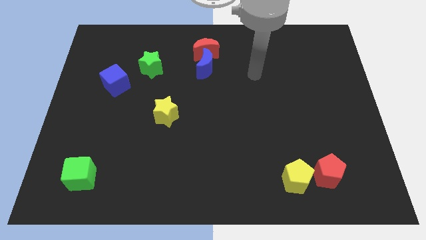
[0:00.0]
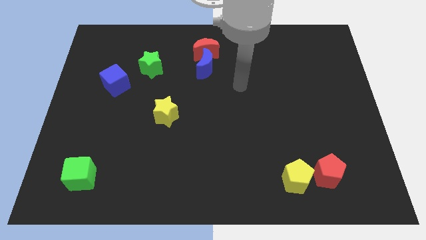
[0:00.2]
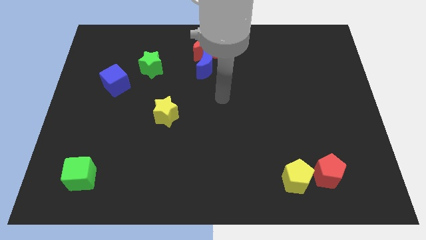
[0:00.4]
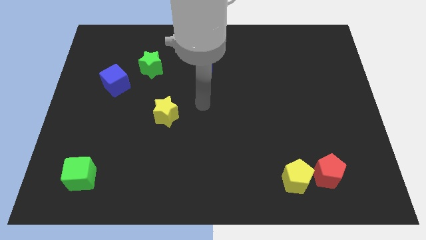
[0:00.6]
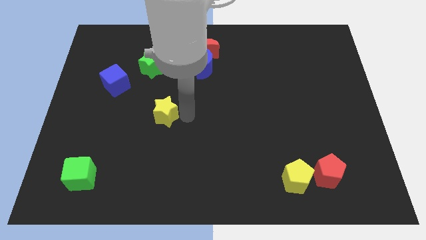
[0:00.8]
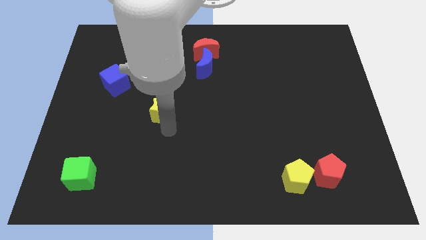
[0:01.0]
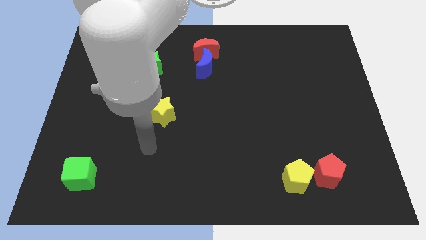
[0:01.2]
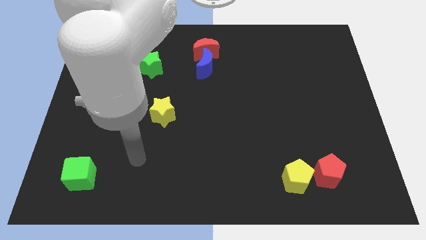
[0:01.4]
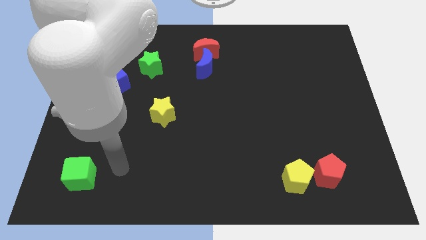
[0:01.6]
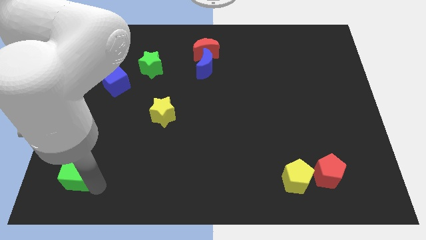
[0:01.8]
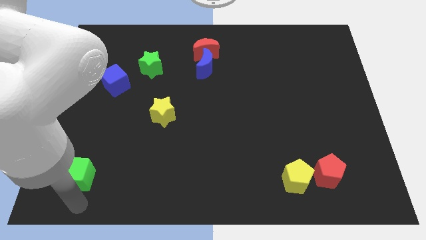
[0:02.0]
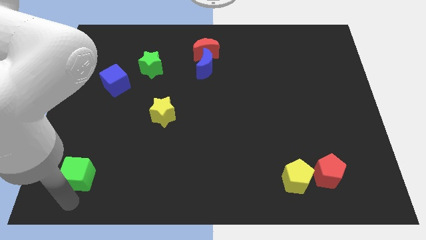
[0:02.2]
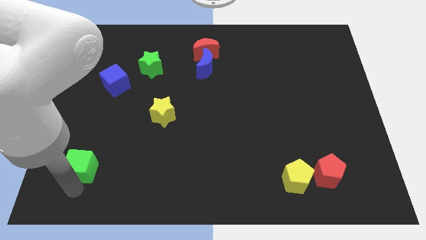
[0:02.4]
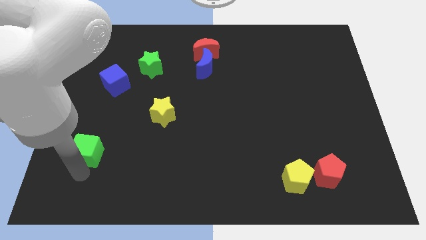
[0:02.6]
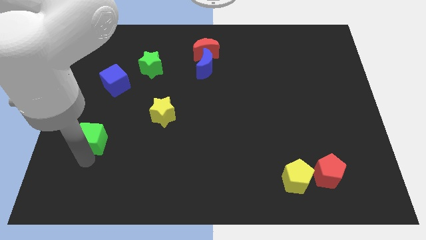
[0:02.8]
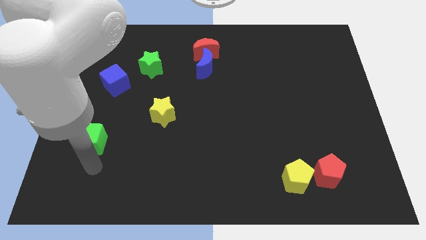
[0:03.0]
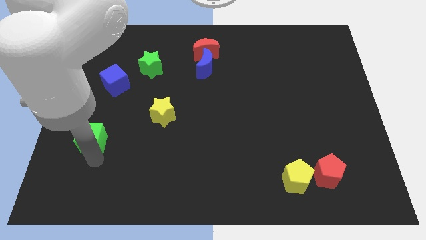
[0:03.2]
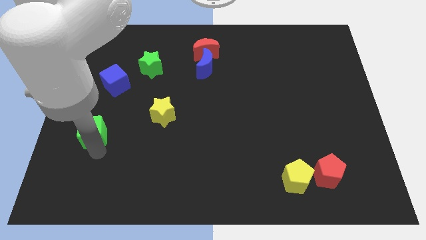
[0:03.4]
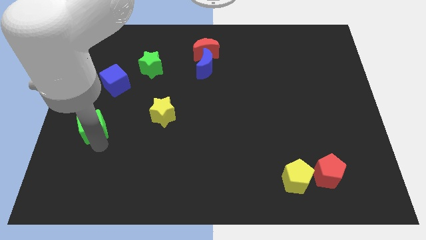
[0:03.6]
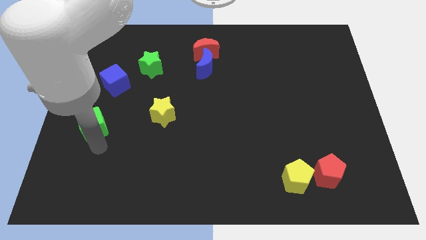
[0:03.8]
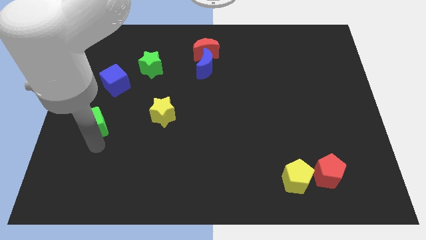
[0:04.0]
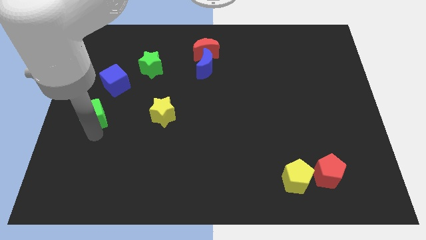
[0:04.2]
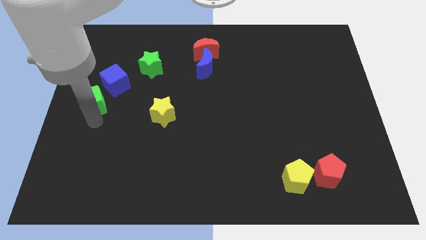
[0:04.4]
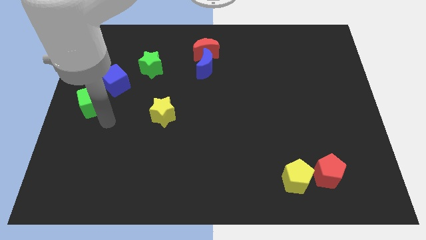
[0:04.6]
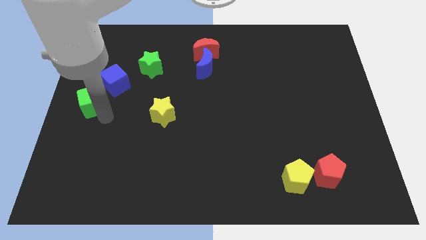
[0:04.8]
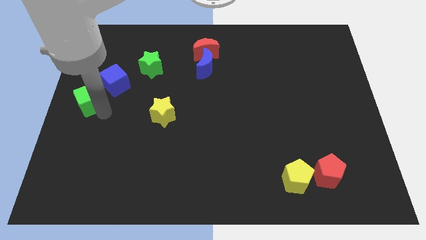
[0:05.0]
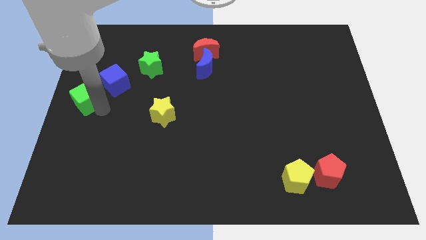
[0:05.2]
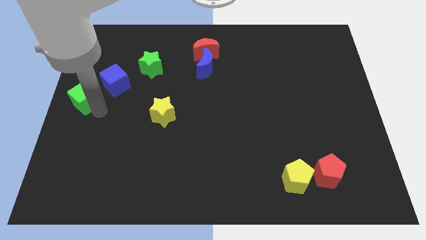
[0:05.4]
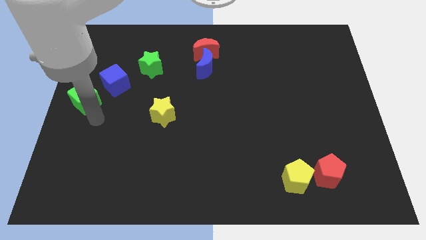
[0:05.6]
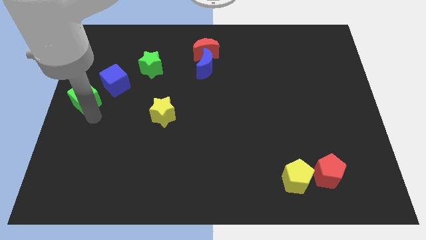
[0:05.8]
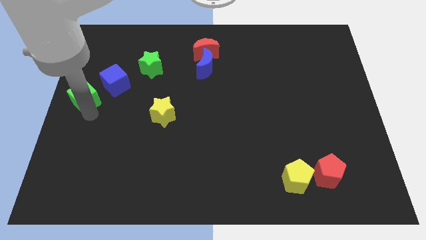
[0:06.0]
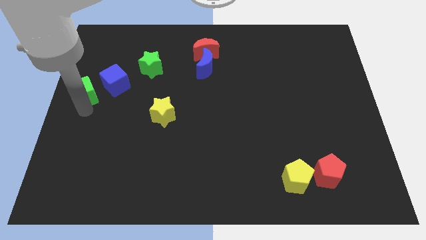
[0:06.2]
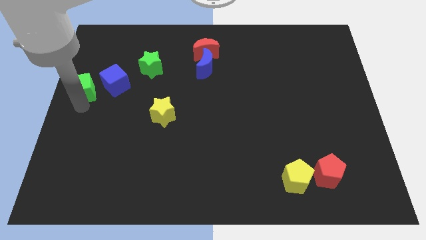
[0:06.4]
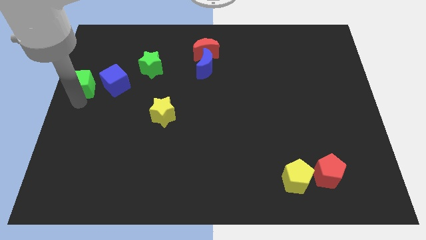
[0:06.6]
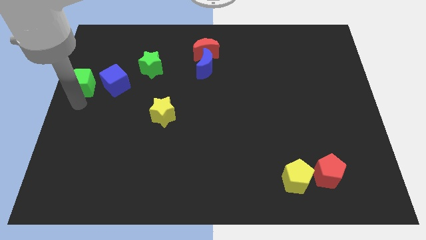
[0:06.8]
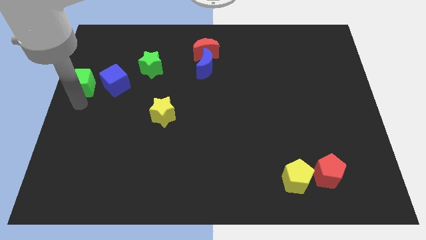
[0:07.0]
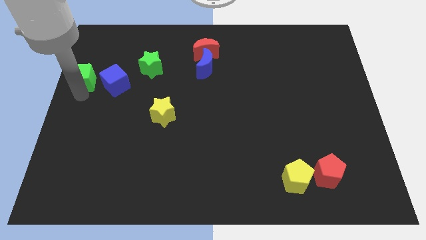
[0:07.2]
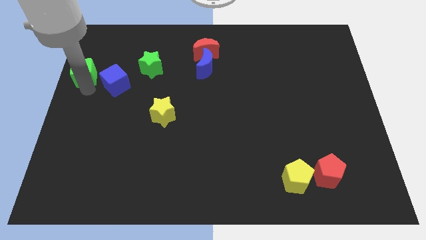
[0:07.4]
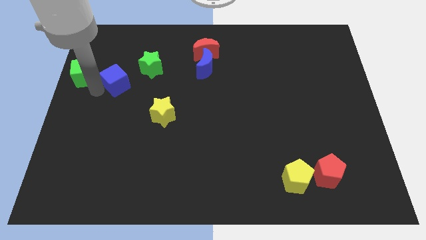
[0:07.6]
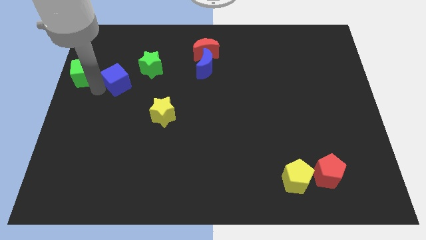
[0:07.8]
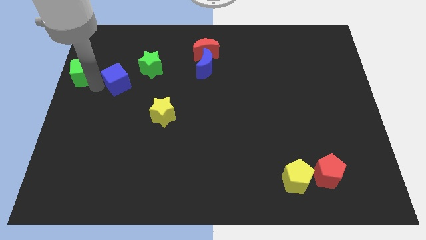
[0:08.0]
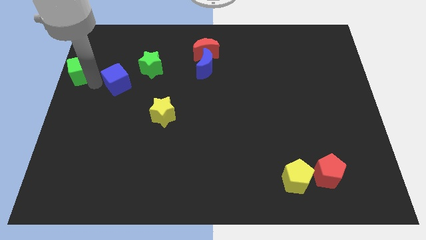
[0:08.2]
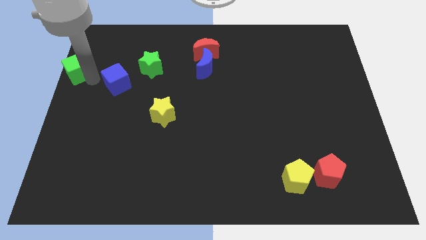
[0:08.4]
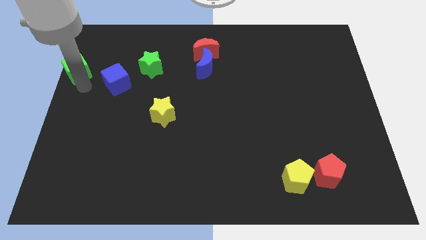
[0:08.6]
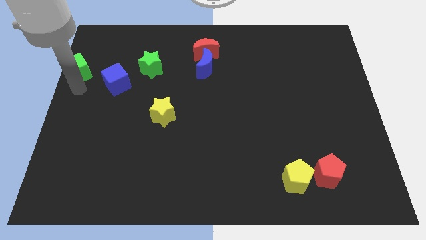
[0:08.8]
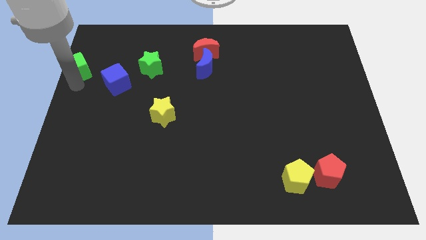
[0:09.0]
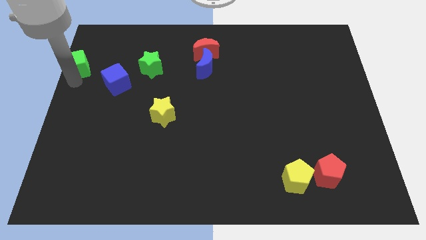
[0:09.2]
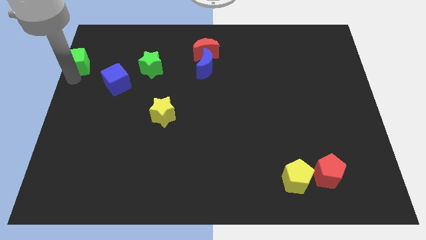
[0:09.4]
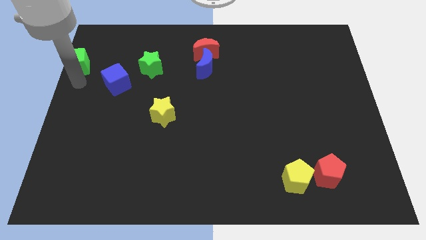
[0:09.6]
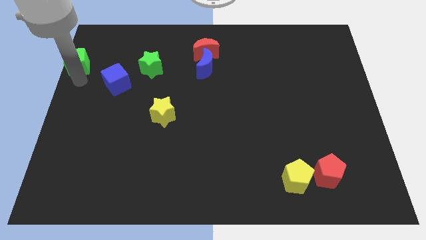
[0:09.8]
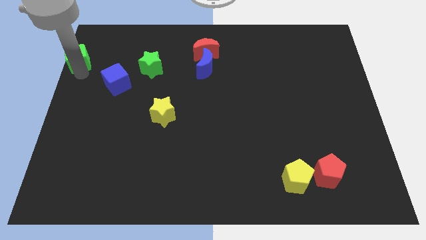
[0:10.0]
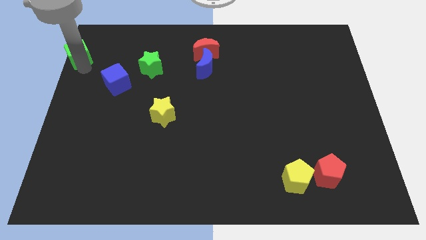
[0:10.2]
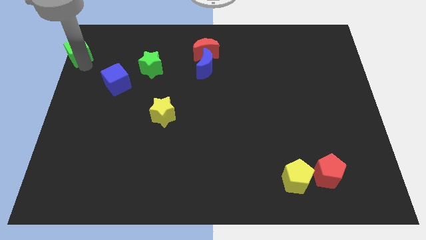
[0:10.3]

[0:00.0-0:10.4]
slide the green cube to the top left of the board

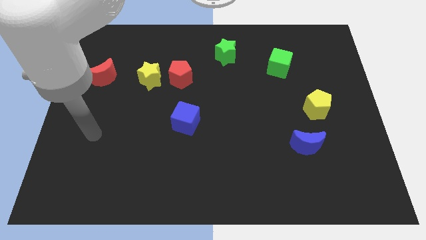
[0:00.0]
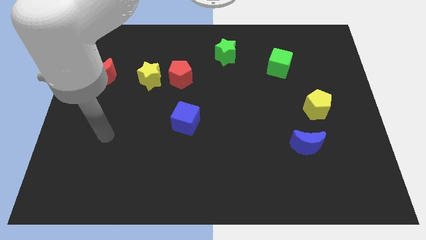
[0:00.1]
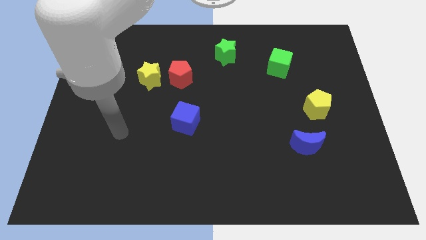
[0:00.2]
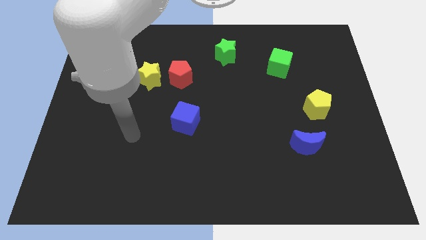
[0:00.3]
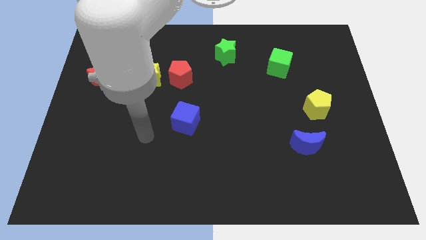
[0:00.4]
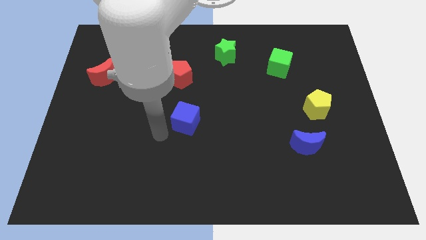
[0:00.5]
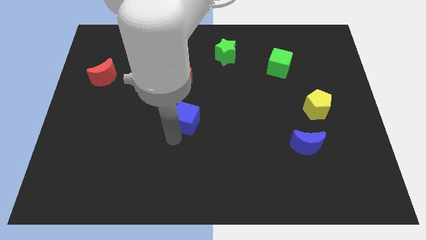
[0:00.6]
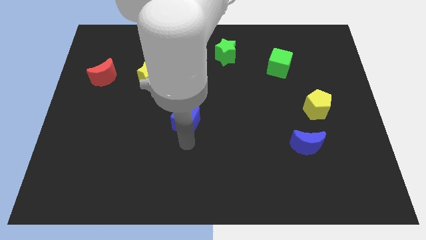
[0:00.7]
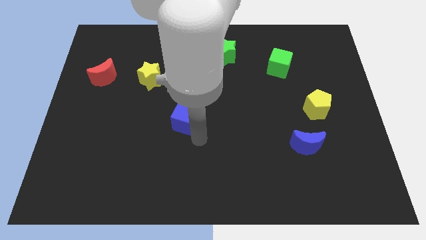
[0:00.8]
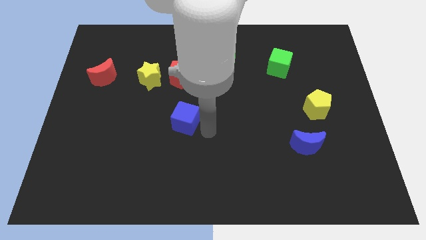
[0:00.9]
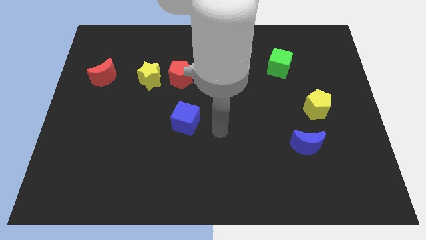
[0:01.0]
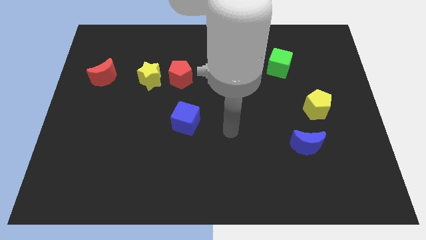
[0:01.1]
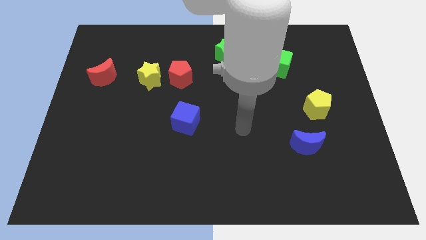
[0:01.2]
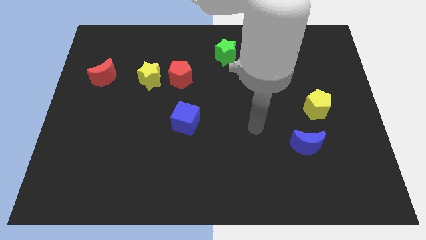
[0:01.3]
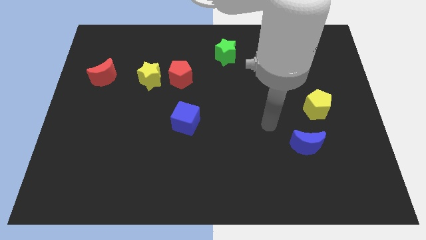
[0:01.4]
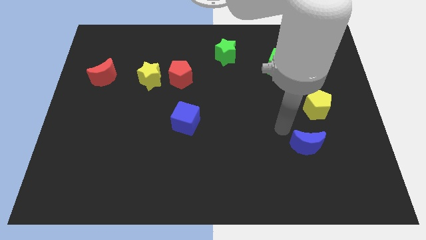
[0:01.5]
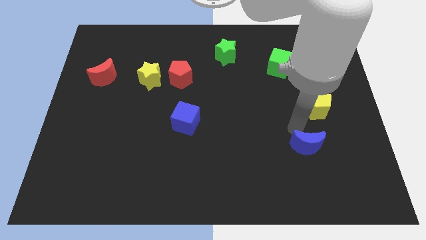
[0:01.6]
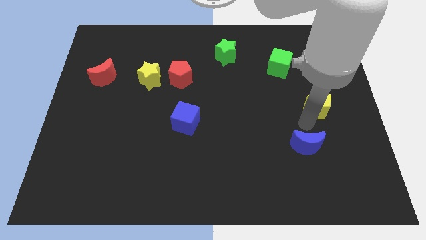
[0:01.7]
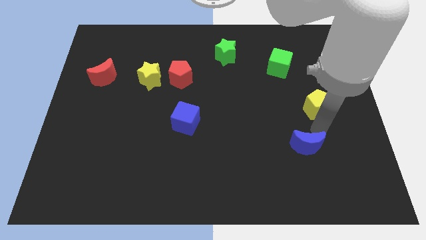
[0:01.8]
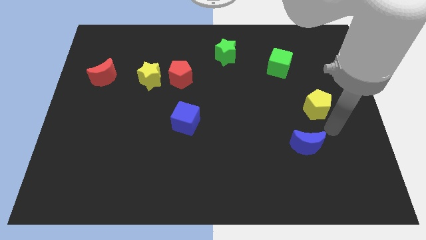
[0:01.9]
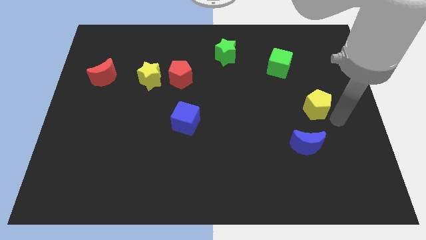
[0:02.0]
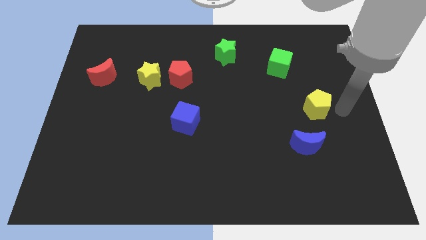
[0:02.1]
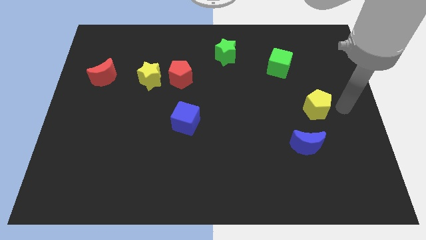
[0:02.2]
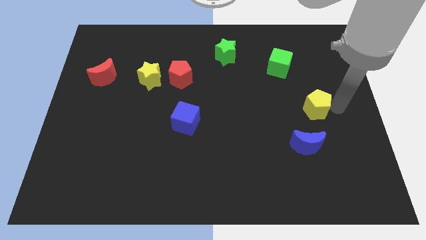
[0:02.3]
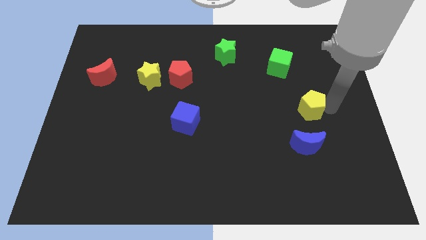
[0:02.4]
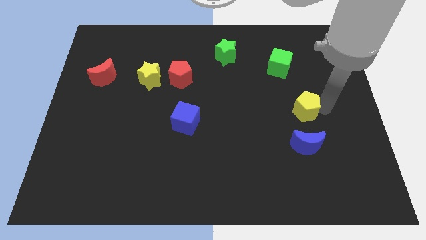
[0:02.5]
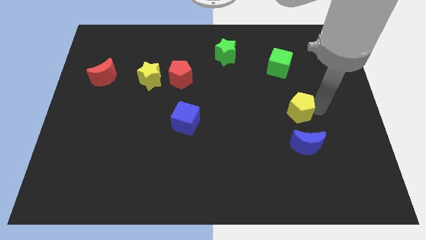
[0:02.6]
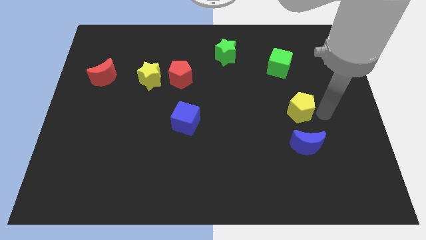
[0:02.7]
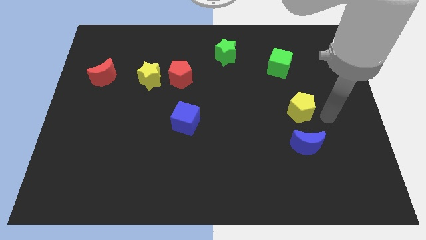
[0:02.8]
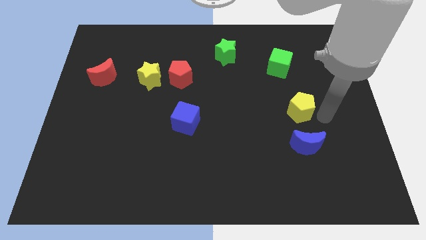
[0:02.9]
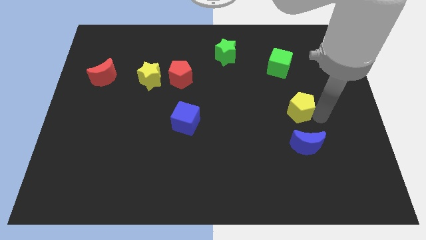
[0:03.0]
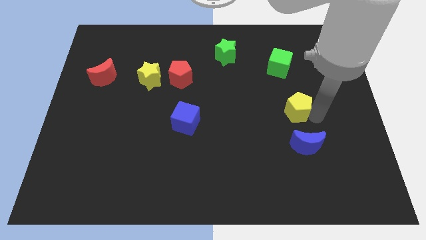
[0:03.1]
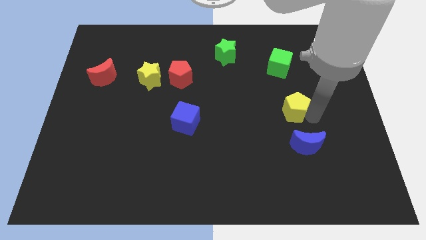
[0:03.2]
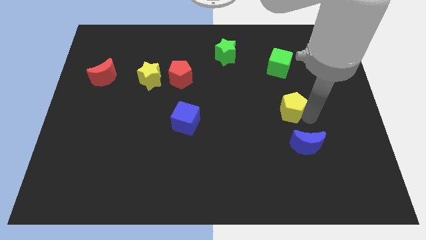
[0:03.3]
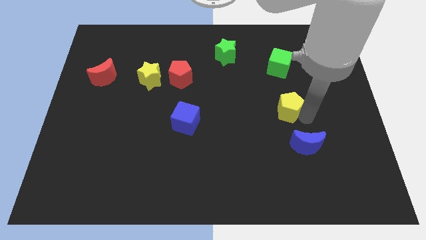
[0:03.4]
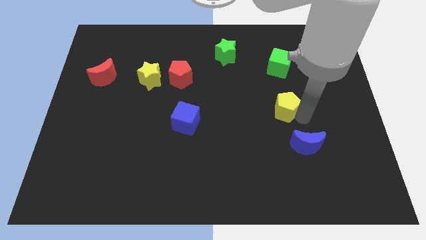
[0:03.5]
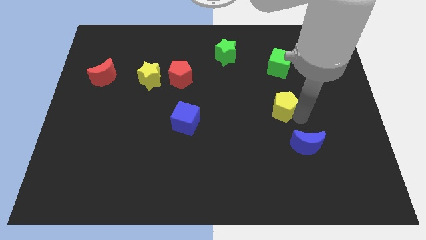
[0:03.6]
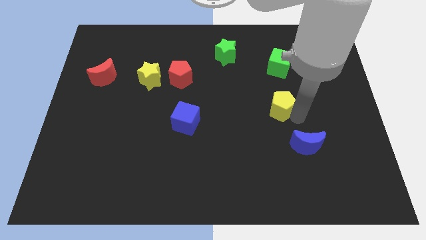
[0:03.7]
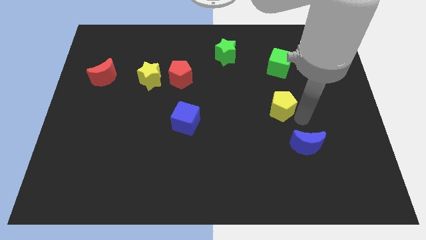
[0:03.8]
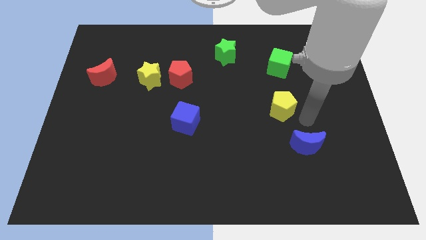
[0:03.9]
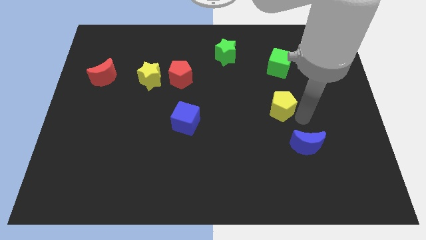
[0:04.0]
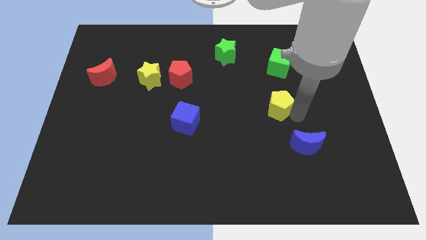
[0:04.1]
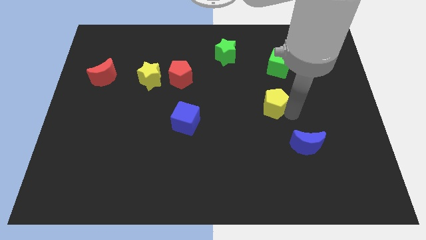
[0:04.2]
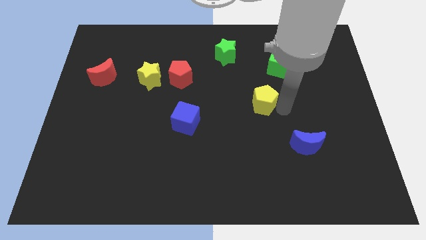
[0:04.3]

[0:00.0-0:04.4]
slide the yellow pentagon to the middle
